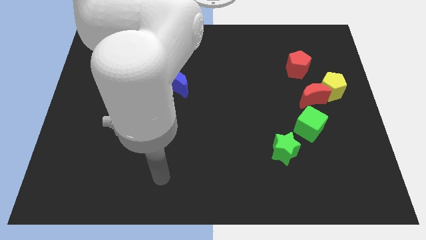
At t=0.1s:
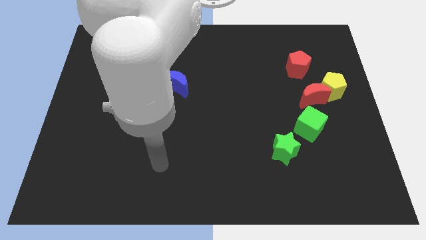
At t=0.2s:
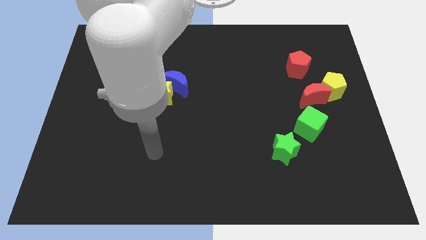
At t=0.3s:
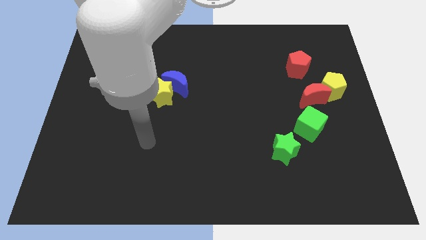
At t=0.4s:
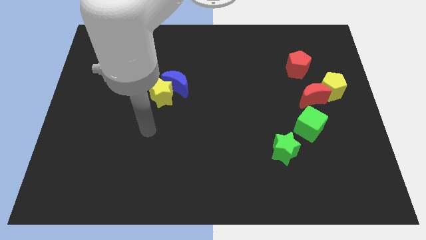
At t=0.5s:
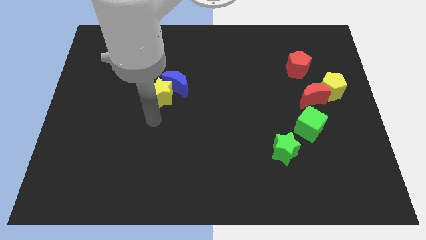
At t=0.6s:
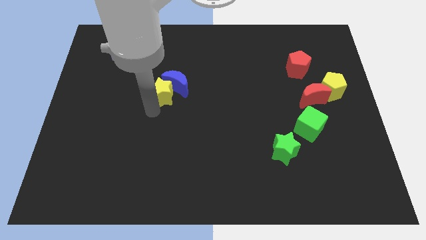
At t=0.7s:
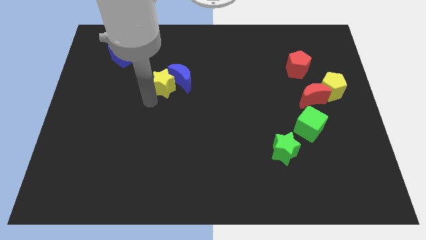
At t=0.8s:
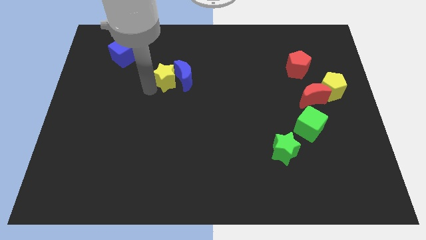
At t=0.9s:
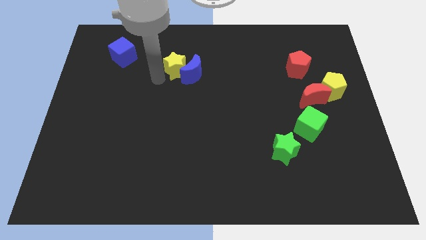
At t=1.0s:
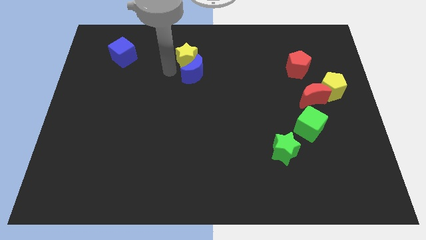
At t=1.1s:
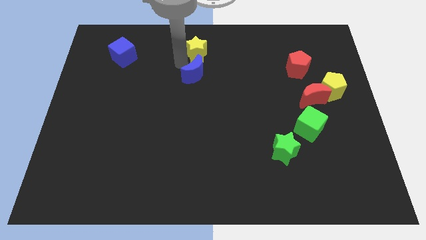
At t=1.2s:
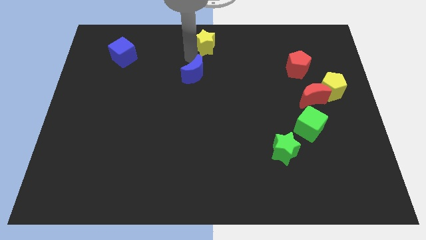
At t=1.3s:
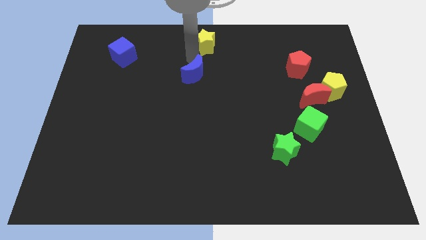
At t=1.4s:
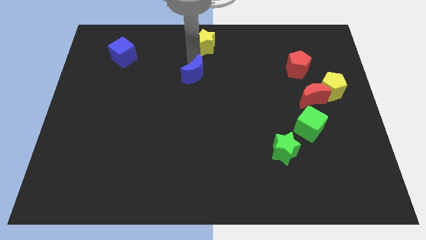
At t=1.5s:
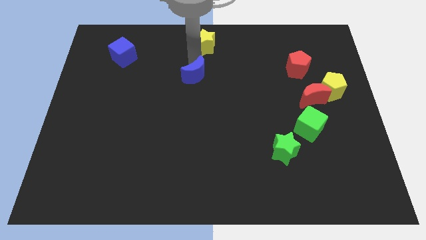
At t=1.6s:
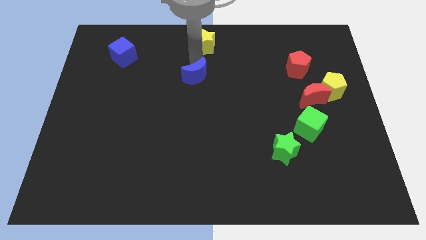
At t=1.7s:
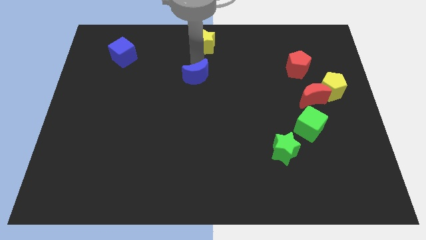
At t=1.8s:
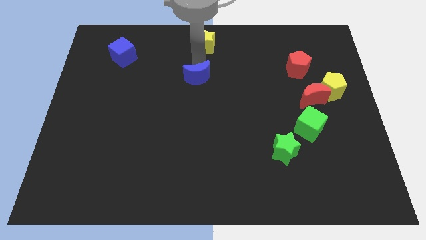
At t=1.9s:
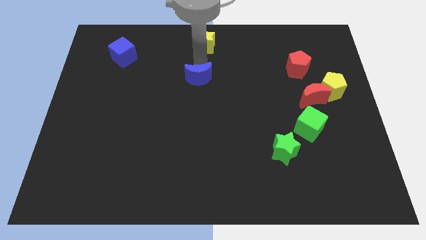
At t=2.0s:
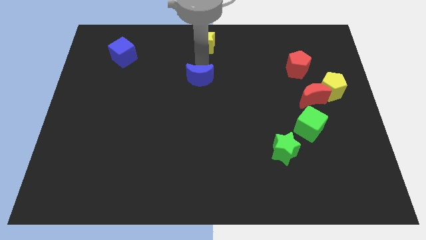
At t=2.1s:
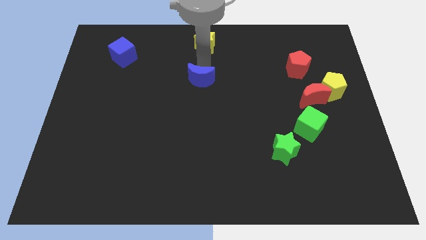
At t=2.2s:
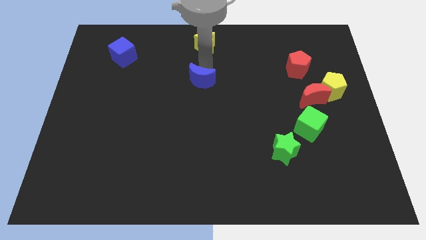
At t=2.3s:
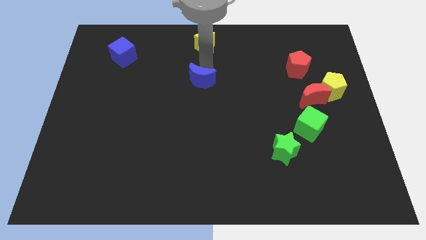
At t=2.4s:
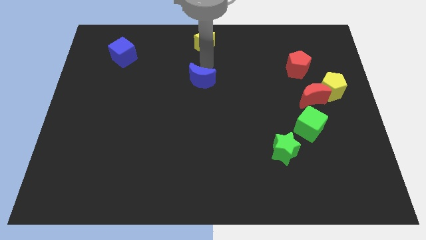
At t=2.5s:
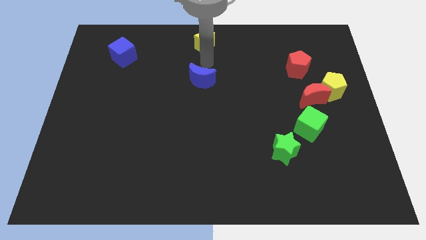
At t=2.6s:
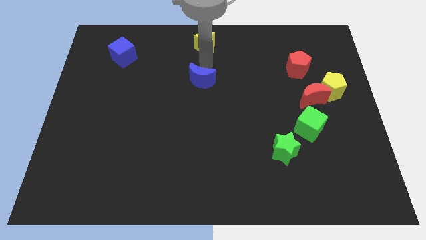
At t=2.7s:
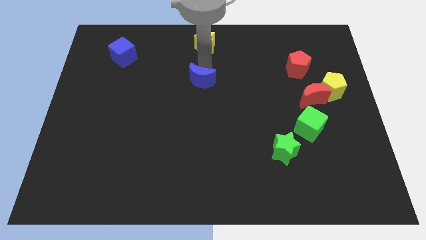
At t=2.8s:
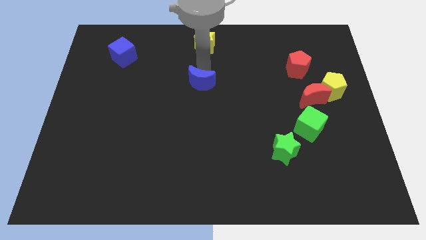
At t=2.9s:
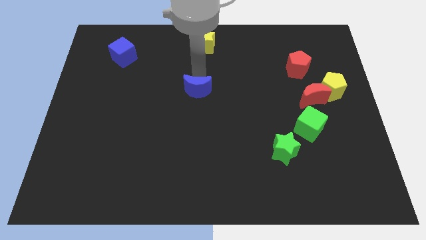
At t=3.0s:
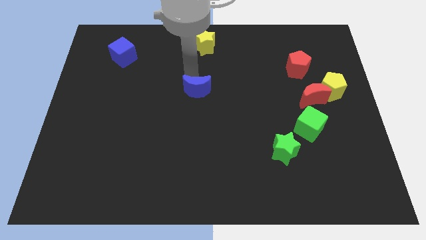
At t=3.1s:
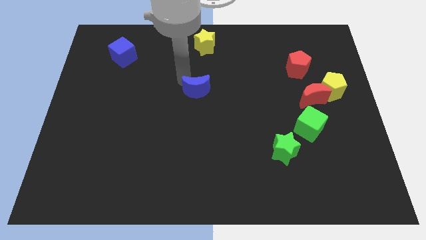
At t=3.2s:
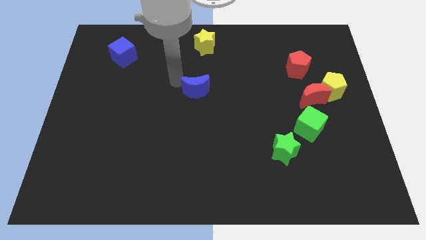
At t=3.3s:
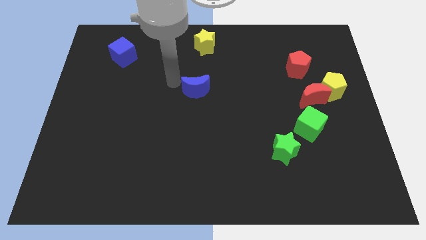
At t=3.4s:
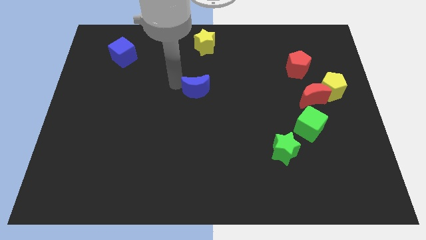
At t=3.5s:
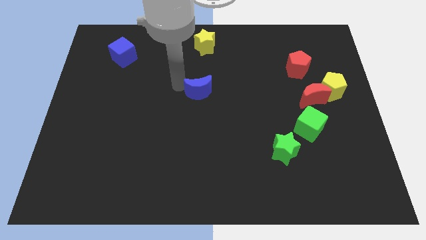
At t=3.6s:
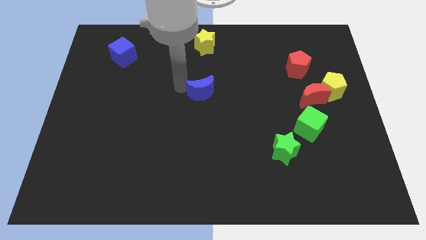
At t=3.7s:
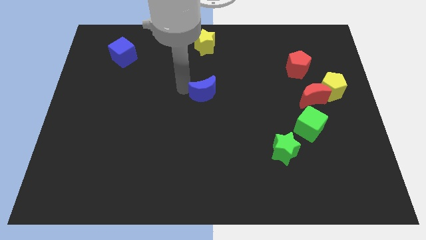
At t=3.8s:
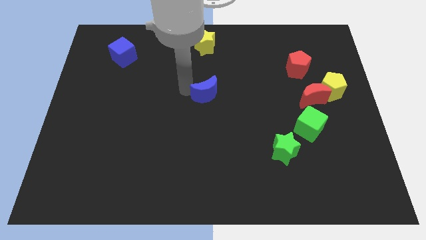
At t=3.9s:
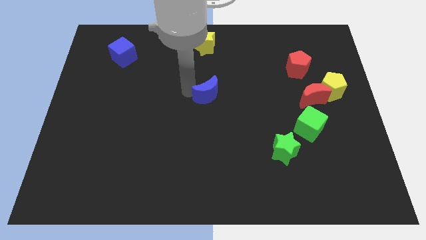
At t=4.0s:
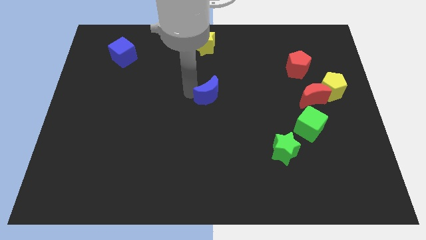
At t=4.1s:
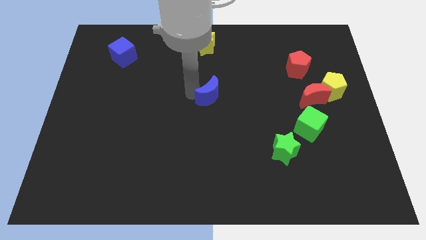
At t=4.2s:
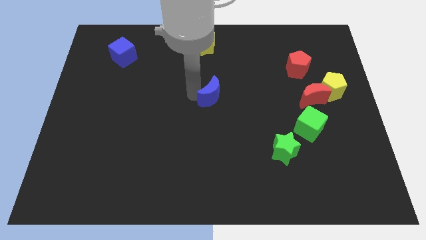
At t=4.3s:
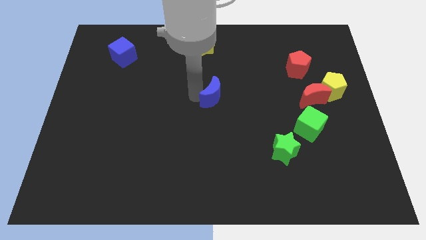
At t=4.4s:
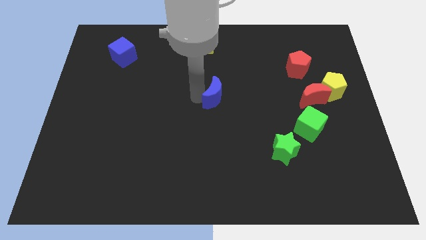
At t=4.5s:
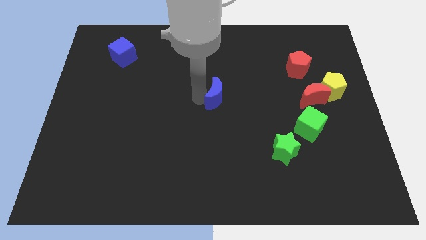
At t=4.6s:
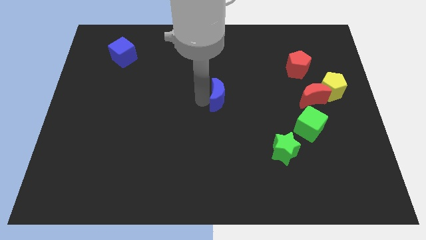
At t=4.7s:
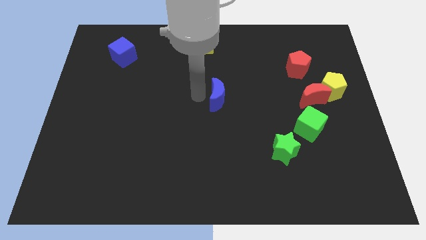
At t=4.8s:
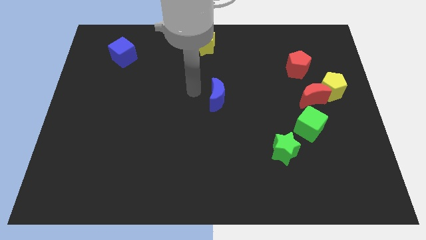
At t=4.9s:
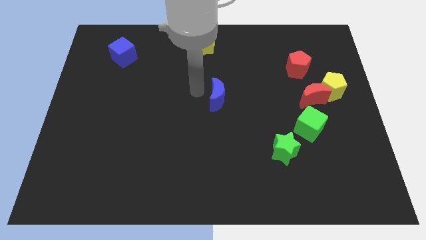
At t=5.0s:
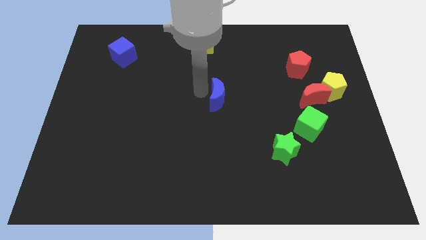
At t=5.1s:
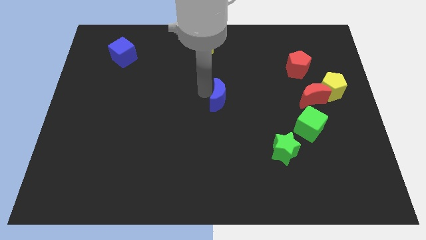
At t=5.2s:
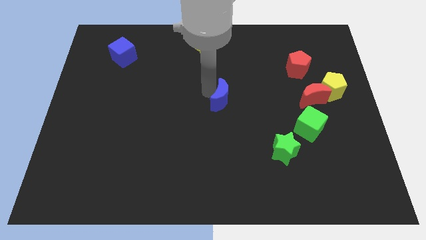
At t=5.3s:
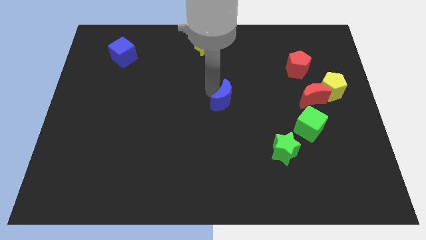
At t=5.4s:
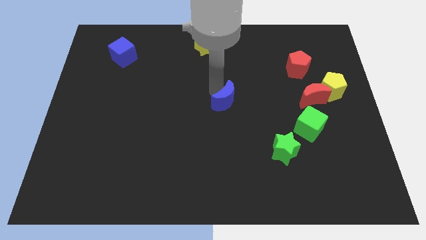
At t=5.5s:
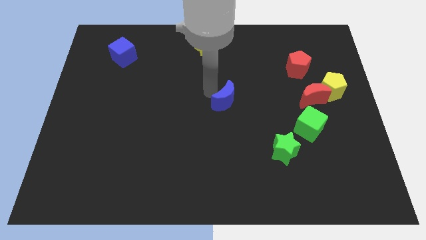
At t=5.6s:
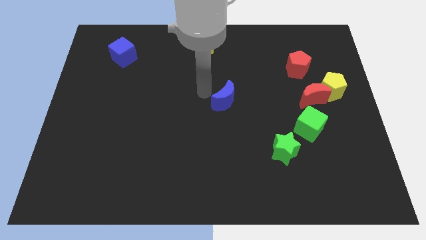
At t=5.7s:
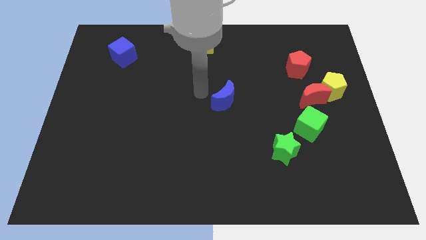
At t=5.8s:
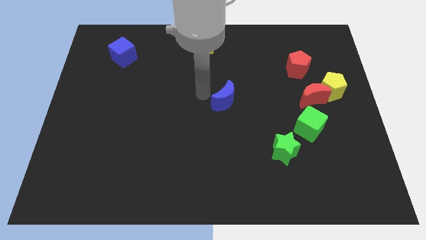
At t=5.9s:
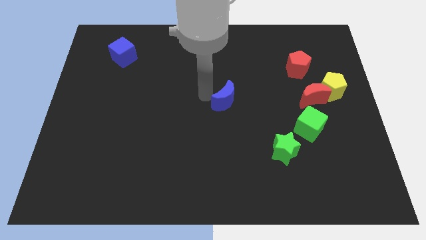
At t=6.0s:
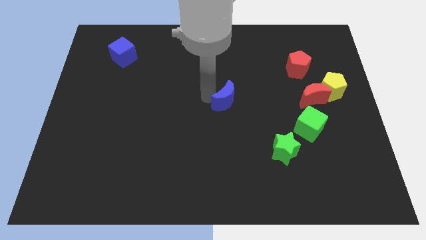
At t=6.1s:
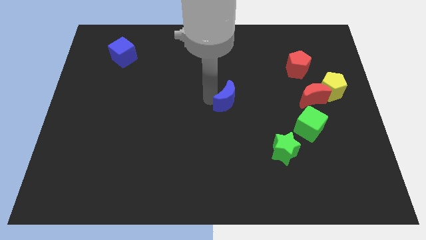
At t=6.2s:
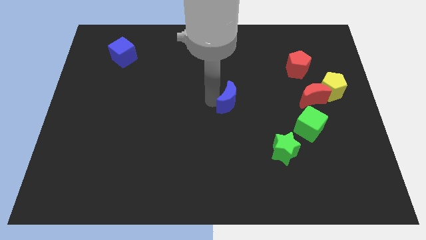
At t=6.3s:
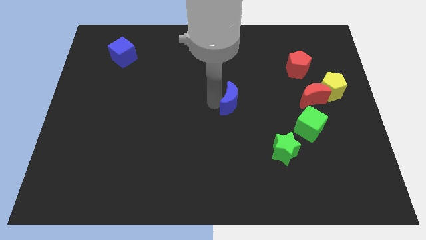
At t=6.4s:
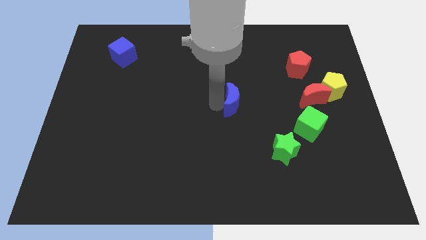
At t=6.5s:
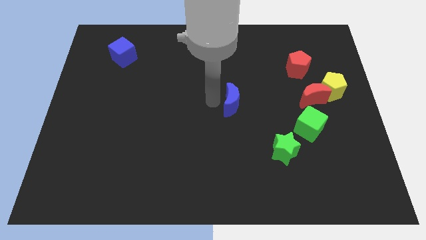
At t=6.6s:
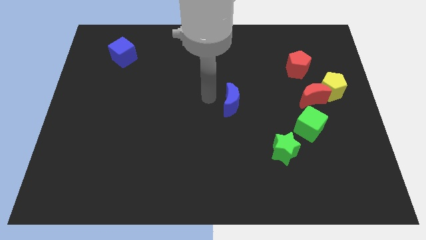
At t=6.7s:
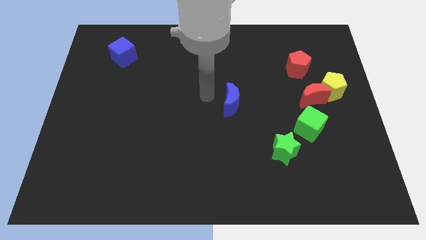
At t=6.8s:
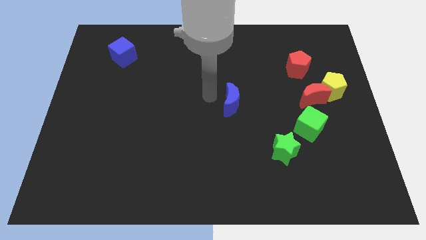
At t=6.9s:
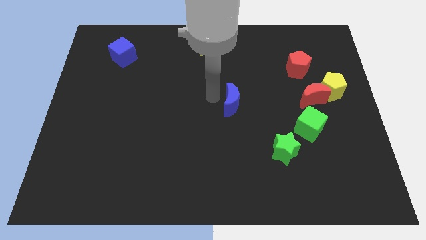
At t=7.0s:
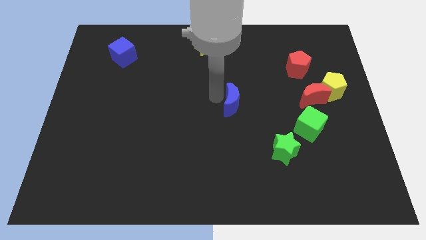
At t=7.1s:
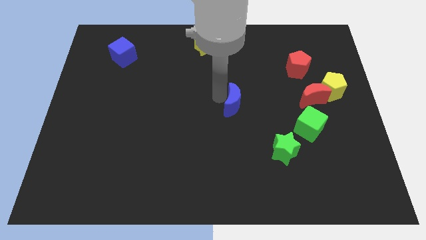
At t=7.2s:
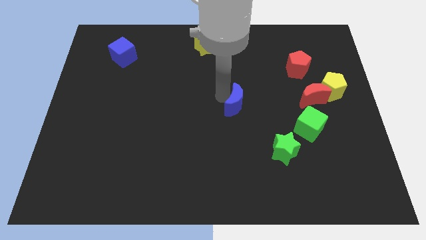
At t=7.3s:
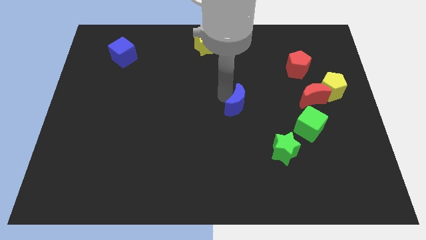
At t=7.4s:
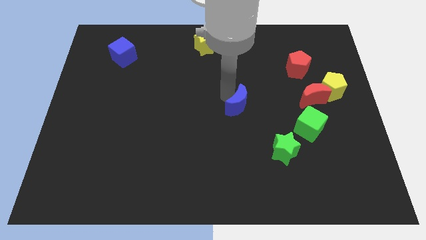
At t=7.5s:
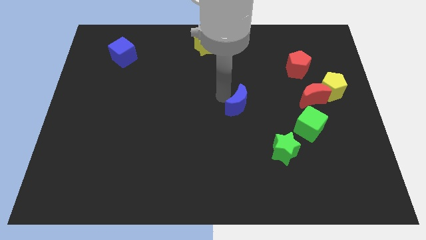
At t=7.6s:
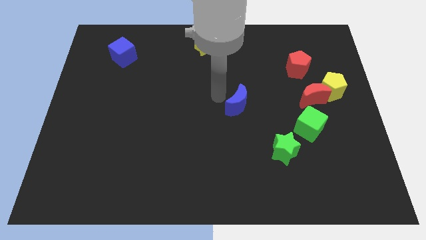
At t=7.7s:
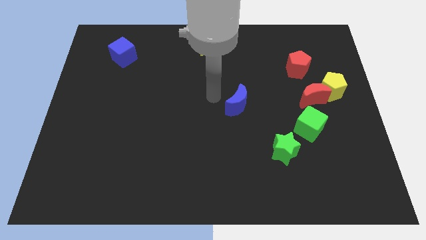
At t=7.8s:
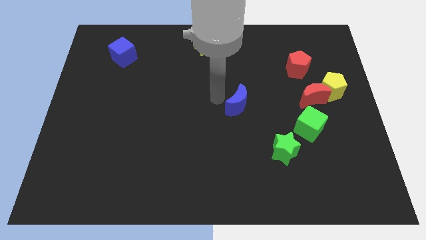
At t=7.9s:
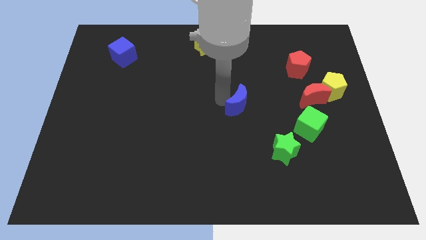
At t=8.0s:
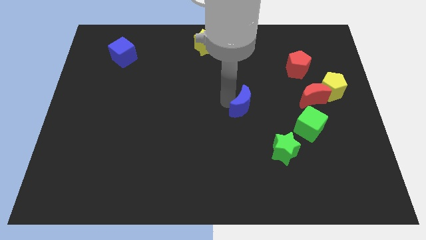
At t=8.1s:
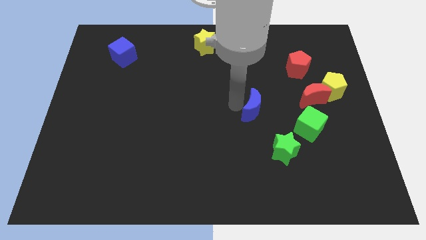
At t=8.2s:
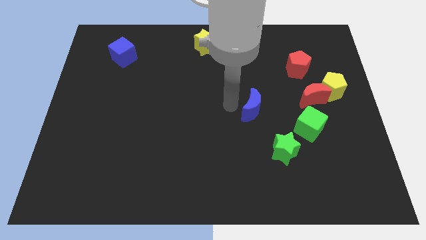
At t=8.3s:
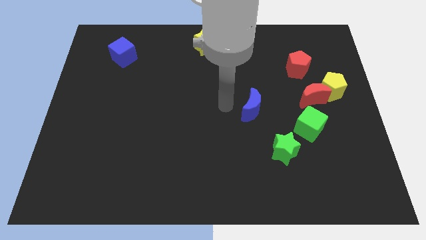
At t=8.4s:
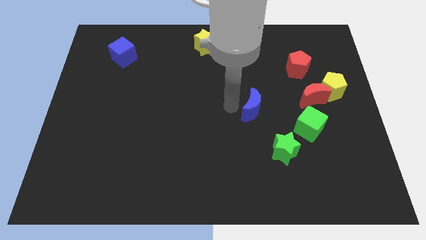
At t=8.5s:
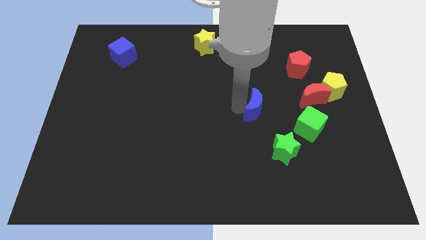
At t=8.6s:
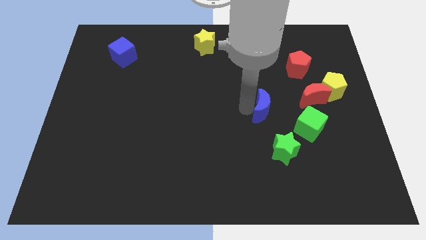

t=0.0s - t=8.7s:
put the blue moon to the top of the green star

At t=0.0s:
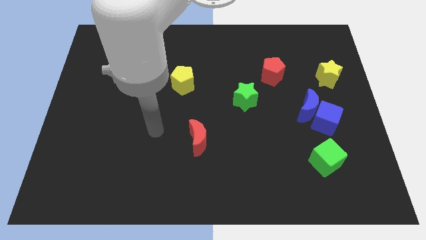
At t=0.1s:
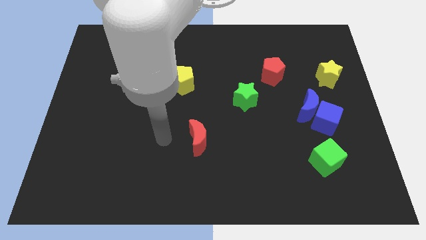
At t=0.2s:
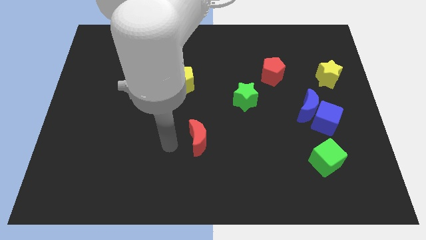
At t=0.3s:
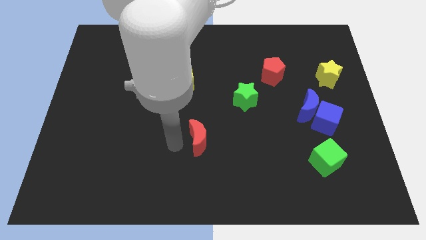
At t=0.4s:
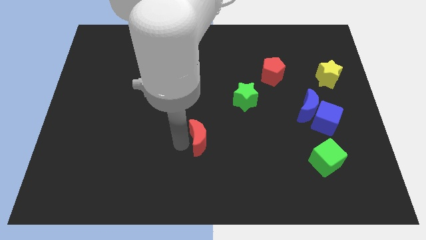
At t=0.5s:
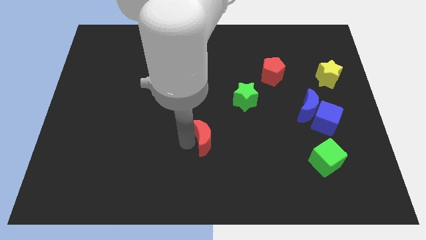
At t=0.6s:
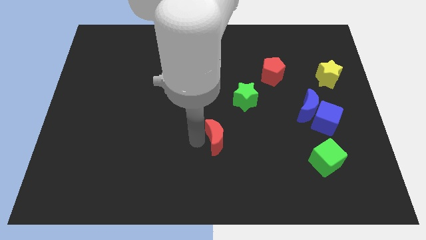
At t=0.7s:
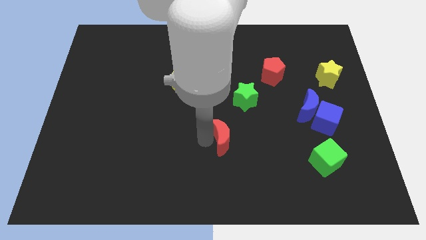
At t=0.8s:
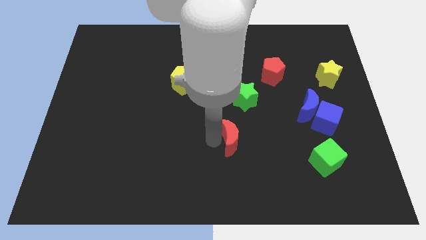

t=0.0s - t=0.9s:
slide the red moon below the green star
